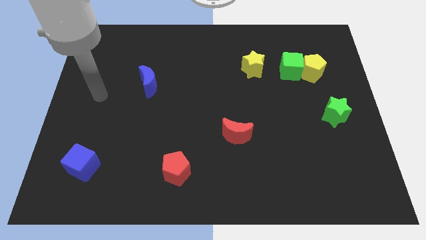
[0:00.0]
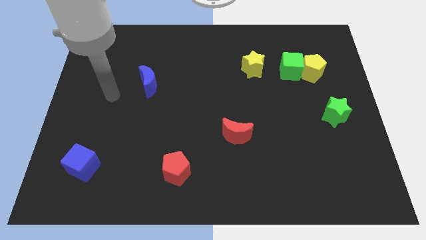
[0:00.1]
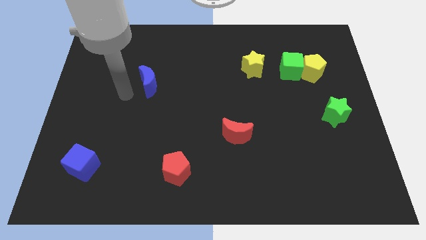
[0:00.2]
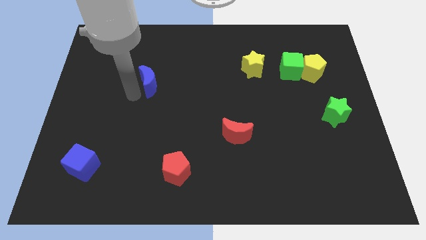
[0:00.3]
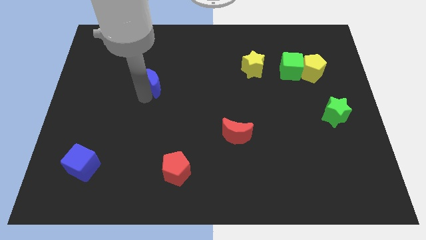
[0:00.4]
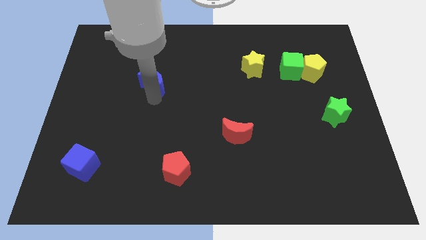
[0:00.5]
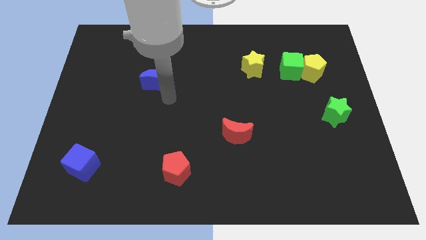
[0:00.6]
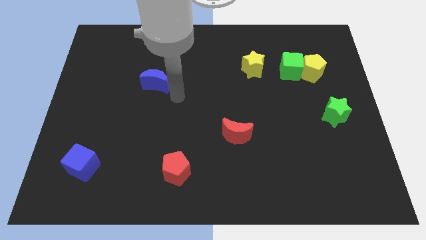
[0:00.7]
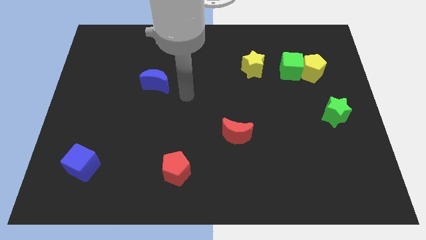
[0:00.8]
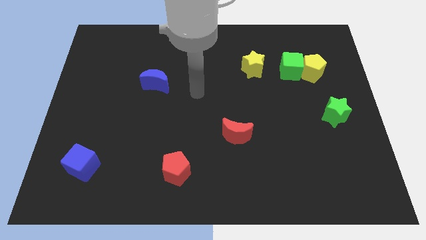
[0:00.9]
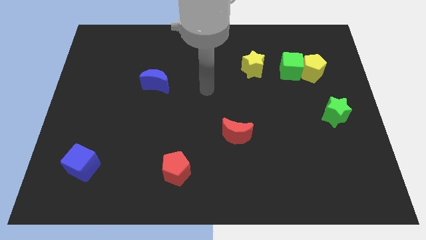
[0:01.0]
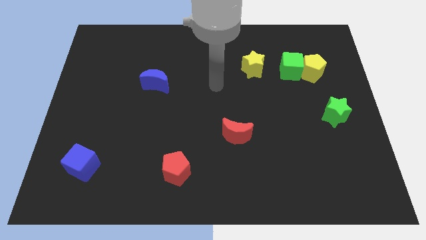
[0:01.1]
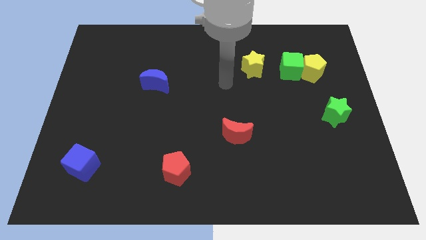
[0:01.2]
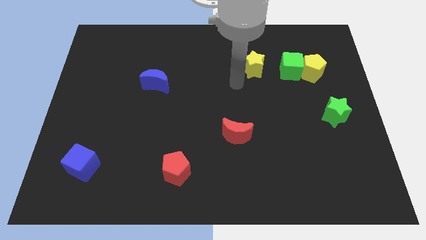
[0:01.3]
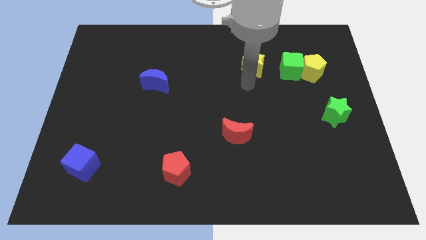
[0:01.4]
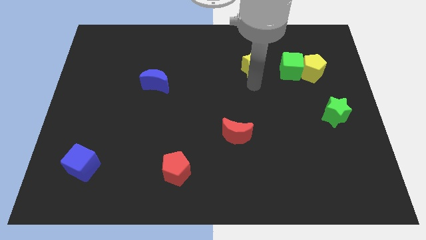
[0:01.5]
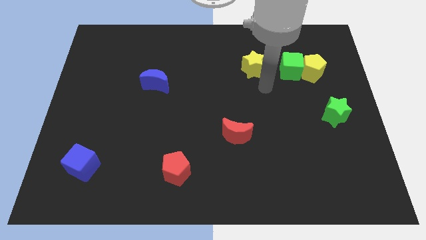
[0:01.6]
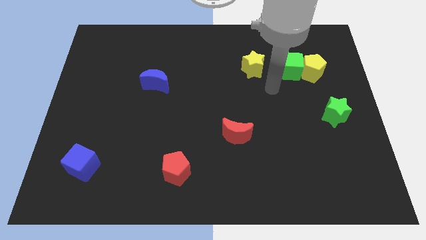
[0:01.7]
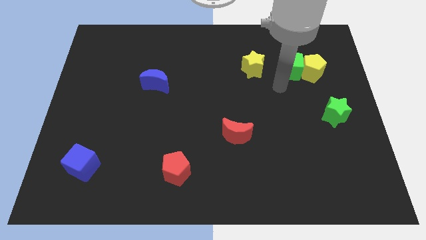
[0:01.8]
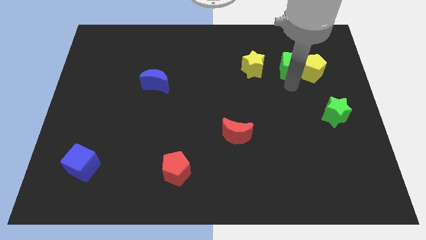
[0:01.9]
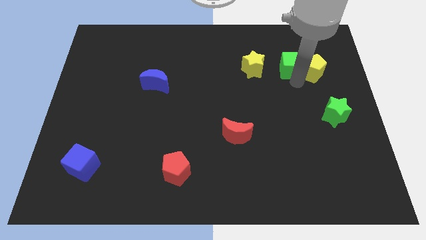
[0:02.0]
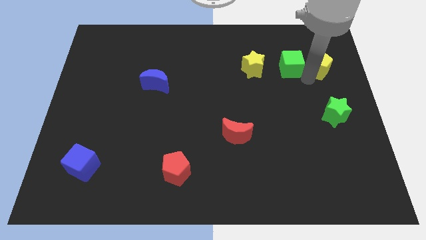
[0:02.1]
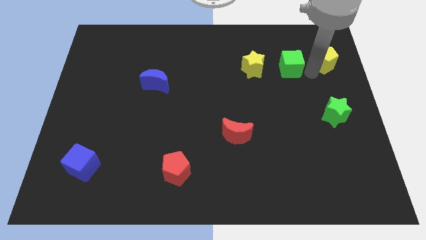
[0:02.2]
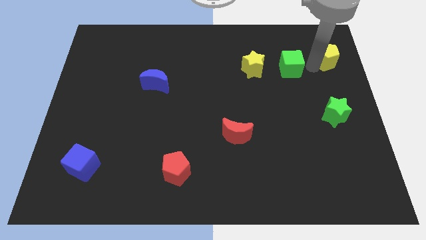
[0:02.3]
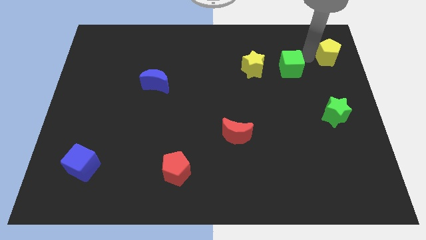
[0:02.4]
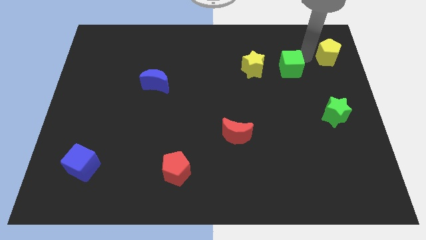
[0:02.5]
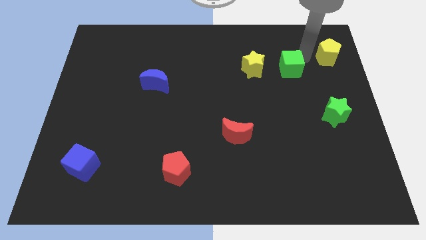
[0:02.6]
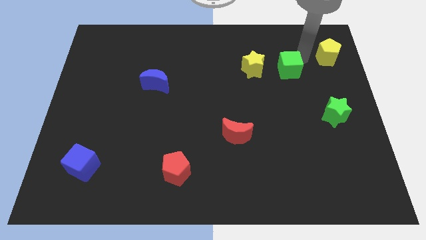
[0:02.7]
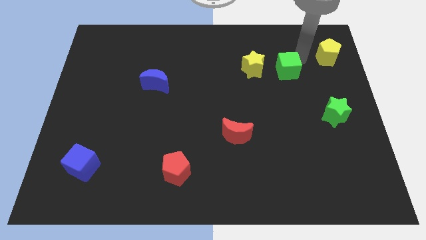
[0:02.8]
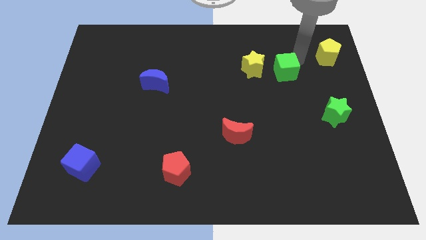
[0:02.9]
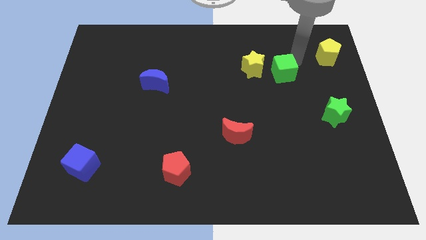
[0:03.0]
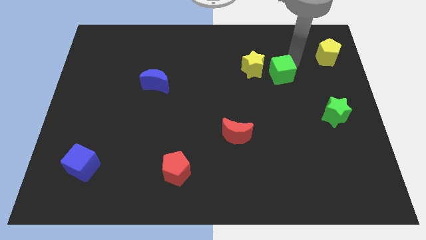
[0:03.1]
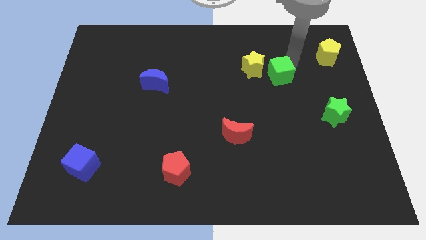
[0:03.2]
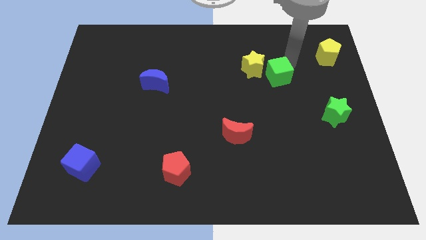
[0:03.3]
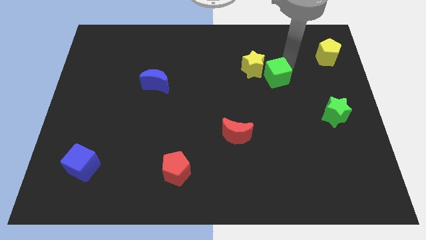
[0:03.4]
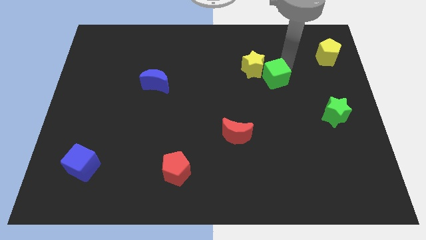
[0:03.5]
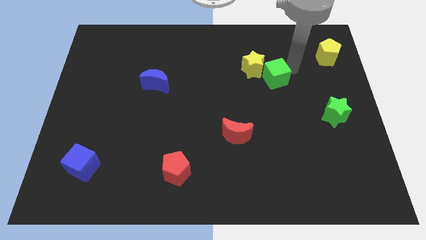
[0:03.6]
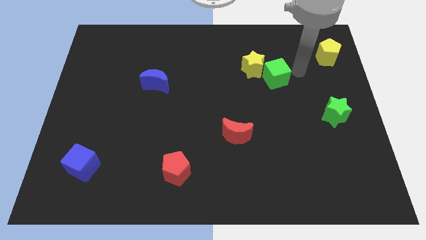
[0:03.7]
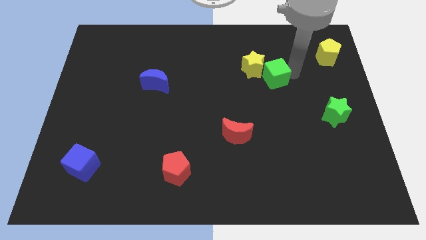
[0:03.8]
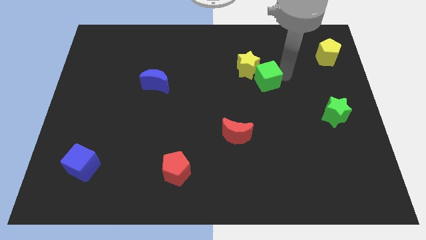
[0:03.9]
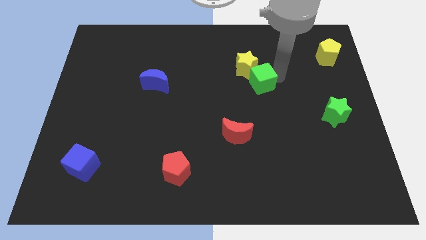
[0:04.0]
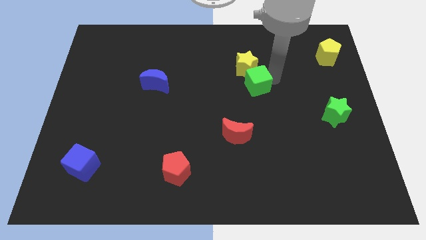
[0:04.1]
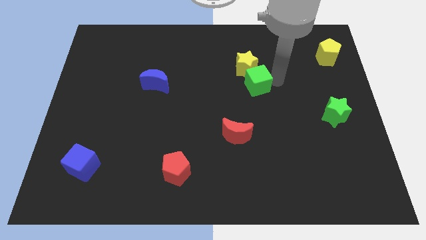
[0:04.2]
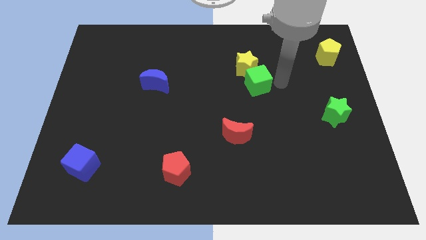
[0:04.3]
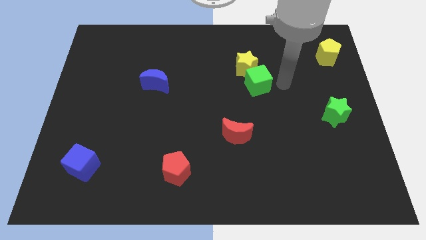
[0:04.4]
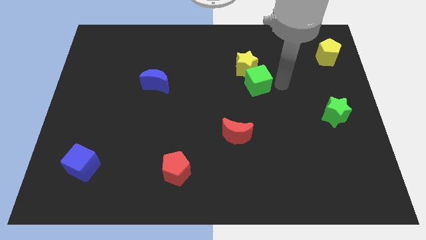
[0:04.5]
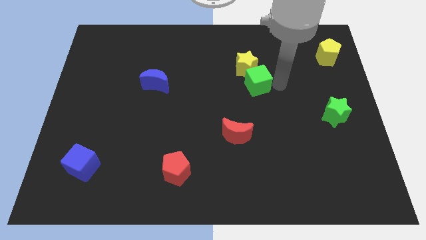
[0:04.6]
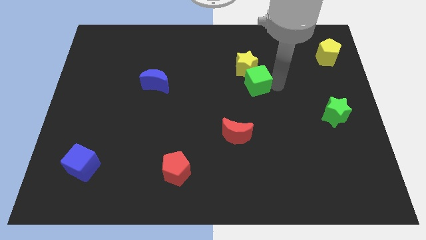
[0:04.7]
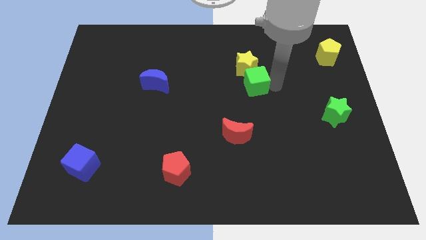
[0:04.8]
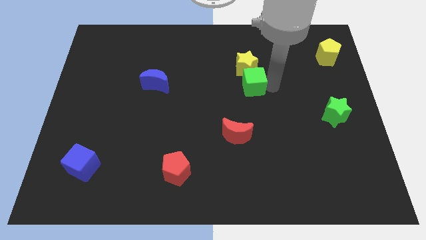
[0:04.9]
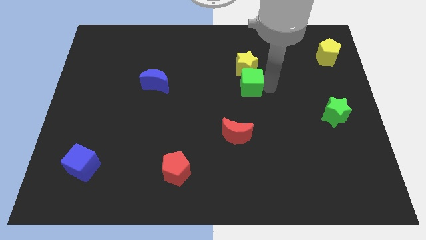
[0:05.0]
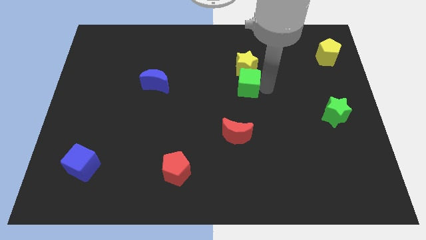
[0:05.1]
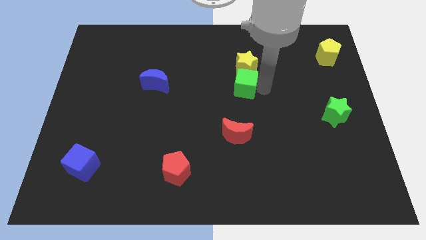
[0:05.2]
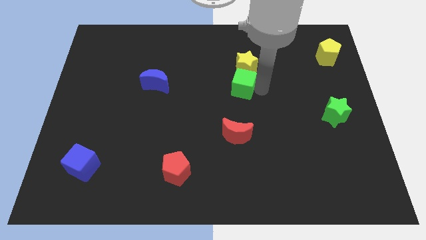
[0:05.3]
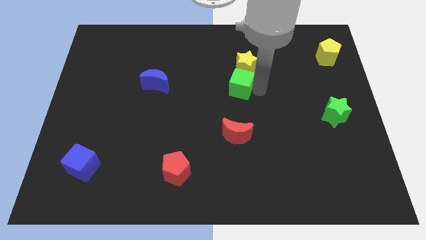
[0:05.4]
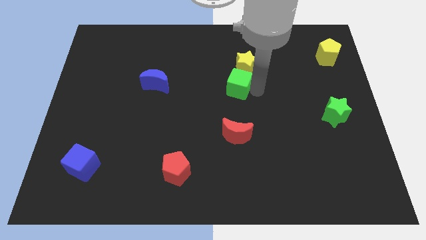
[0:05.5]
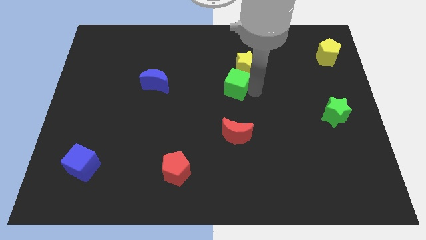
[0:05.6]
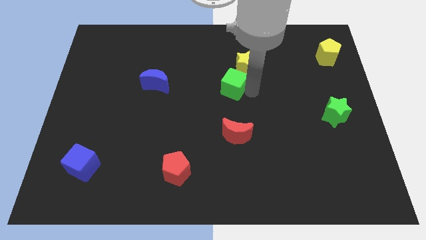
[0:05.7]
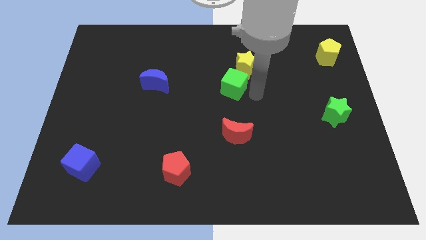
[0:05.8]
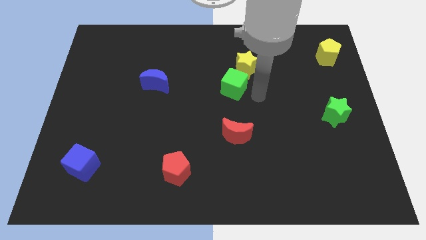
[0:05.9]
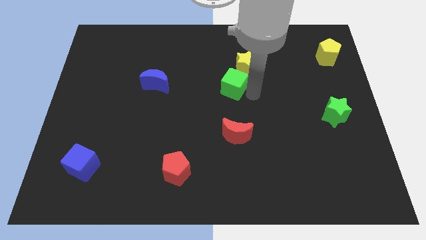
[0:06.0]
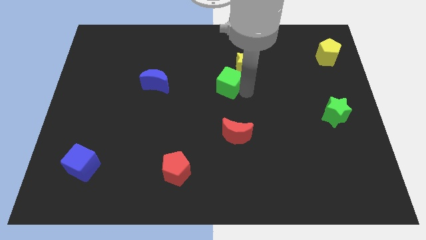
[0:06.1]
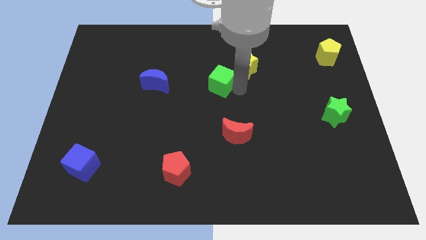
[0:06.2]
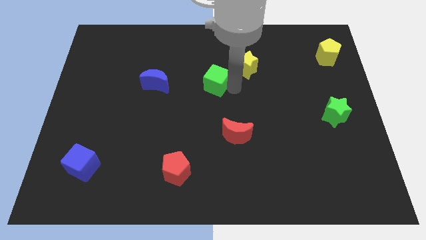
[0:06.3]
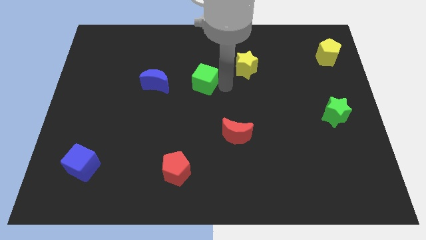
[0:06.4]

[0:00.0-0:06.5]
move the green cube left

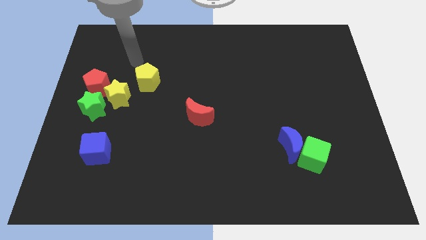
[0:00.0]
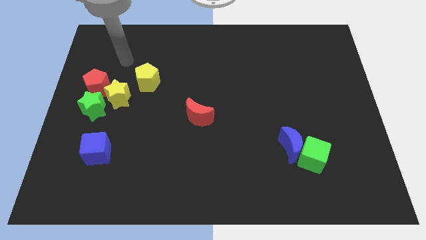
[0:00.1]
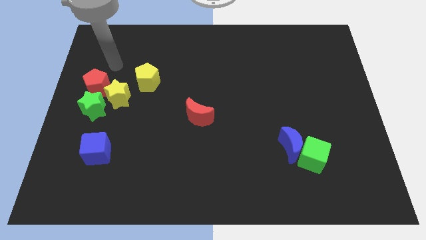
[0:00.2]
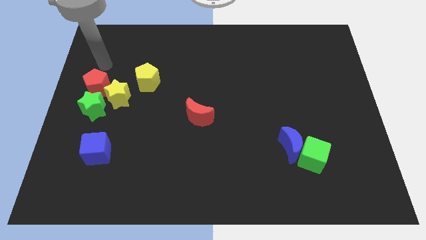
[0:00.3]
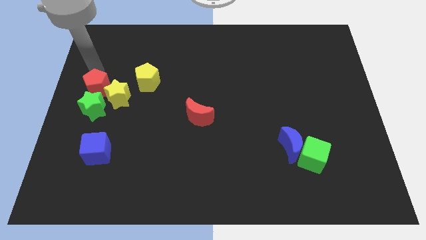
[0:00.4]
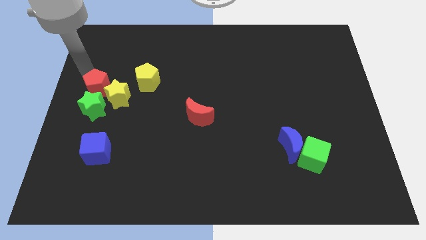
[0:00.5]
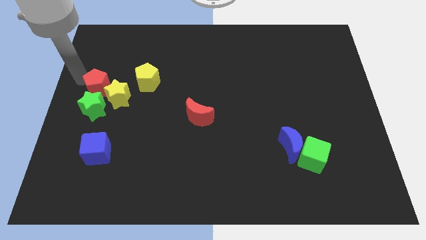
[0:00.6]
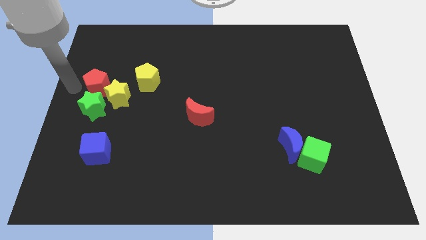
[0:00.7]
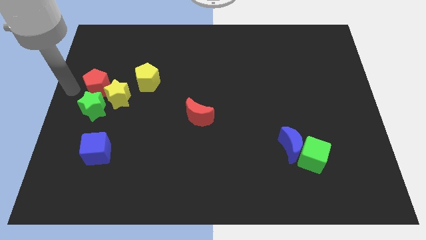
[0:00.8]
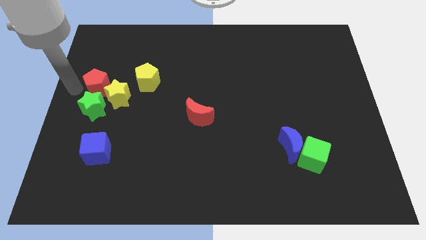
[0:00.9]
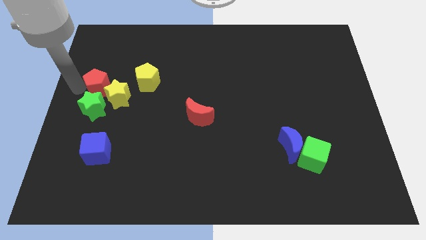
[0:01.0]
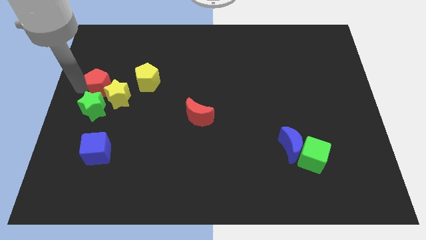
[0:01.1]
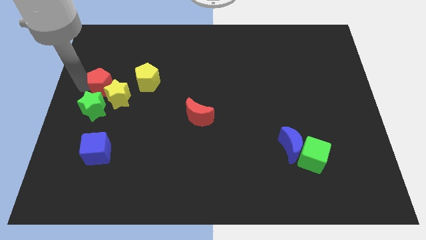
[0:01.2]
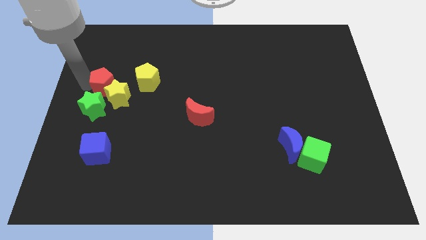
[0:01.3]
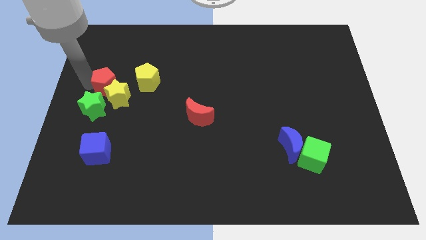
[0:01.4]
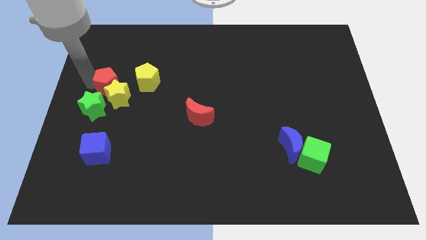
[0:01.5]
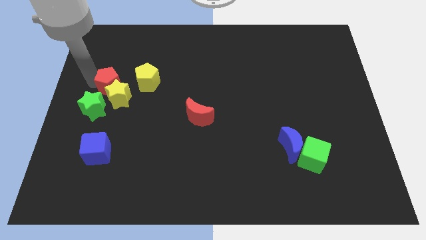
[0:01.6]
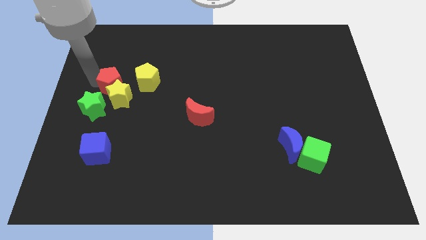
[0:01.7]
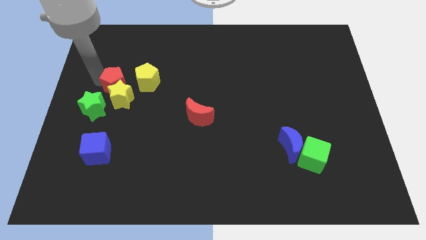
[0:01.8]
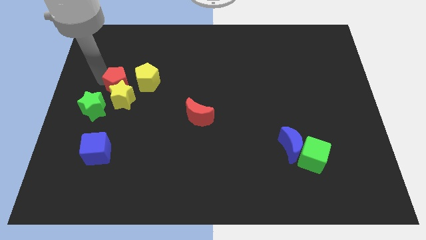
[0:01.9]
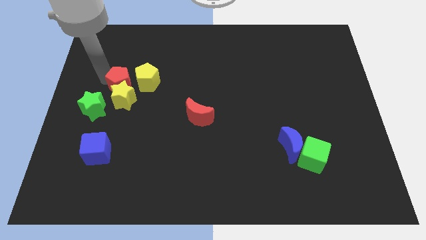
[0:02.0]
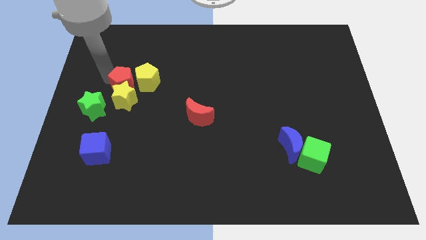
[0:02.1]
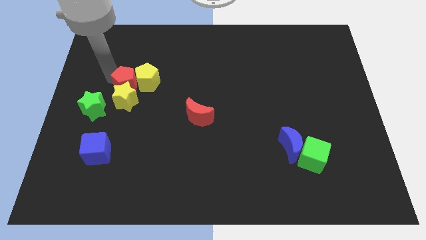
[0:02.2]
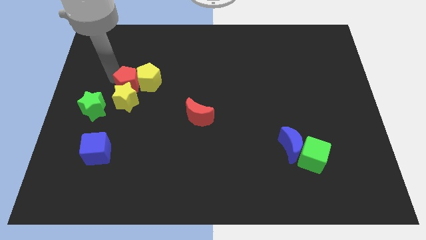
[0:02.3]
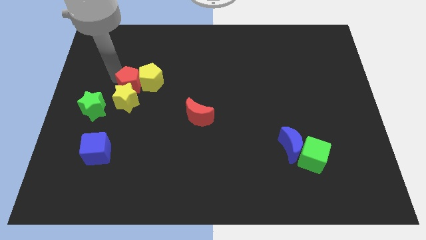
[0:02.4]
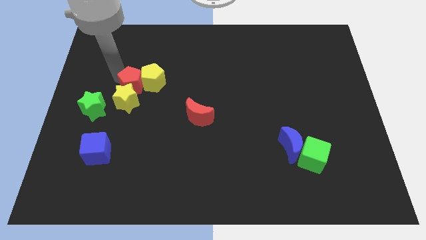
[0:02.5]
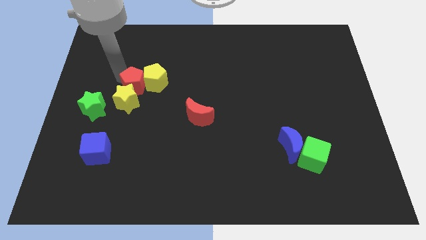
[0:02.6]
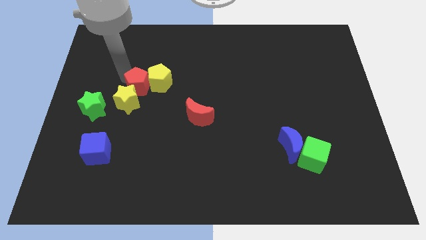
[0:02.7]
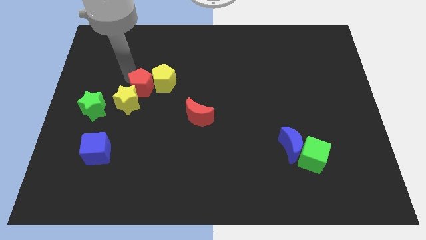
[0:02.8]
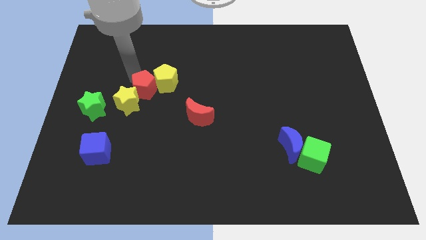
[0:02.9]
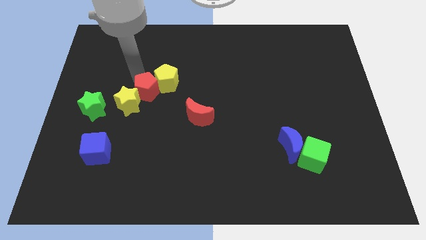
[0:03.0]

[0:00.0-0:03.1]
slightly push the red pentagon downwards and right diagonally
